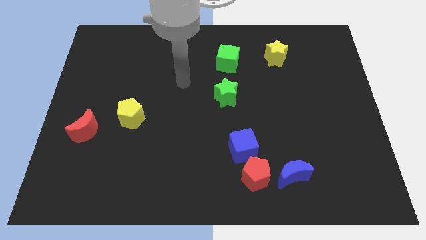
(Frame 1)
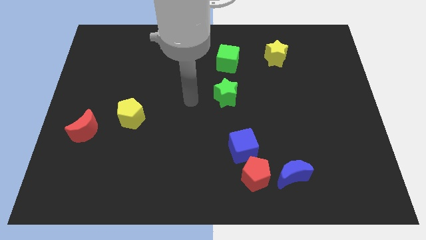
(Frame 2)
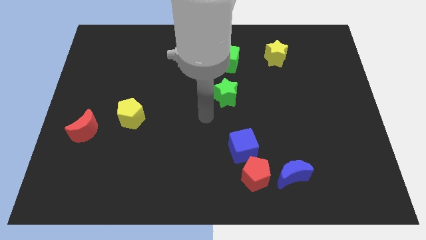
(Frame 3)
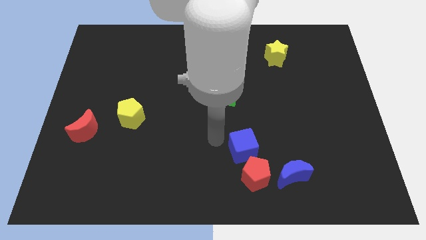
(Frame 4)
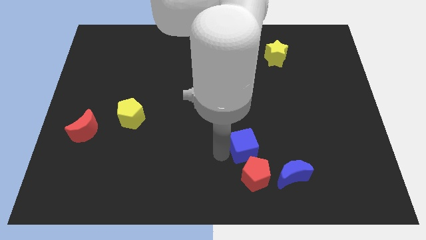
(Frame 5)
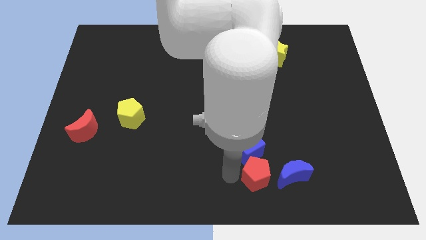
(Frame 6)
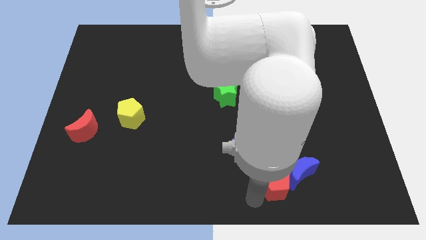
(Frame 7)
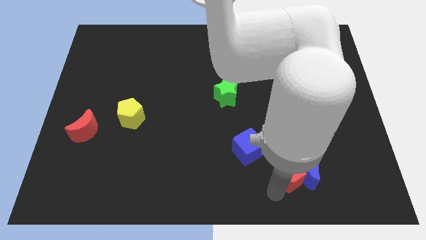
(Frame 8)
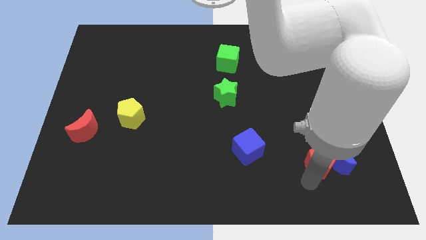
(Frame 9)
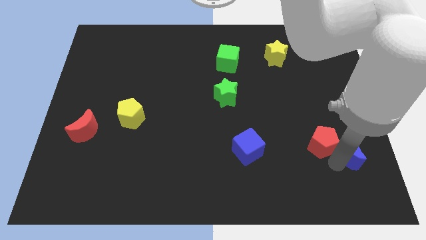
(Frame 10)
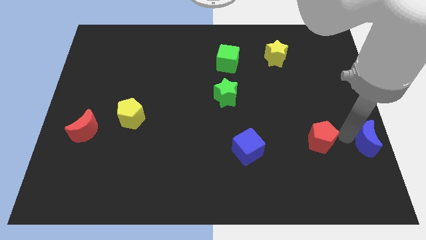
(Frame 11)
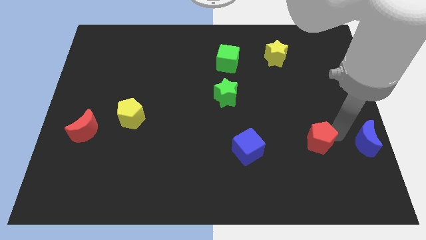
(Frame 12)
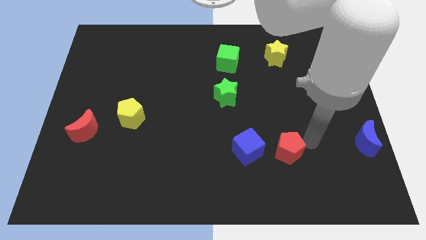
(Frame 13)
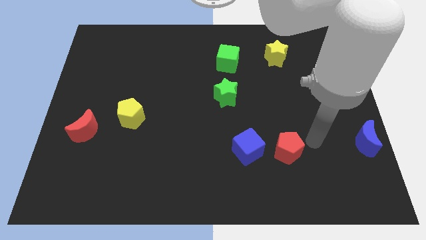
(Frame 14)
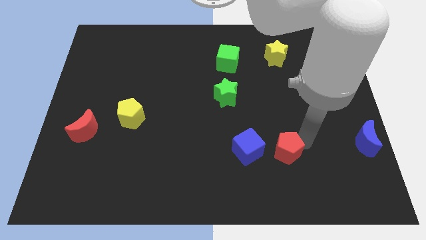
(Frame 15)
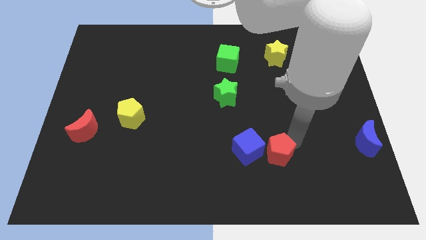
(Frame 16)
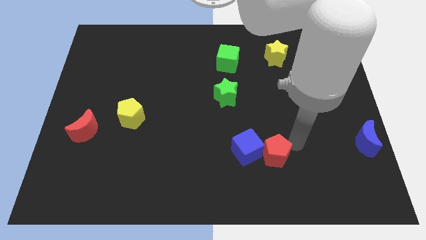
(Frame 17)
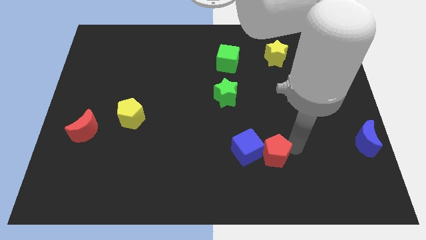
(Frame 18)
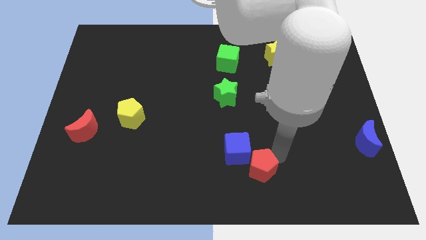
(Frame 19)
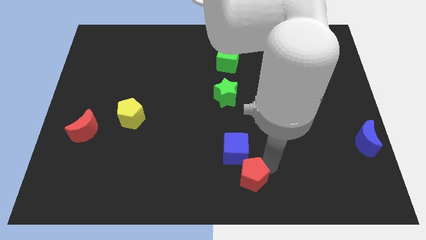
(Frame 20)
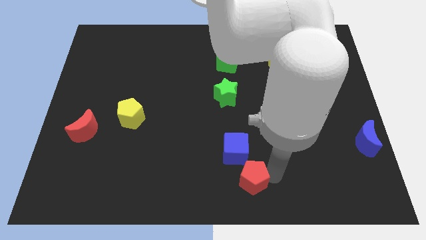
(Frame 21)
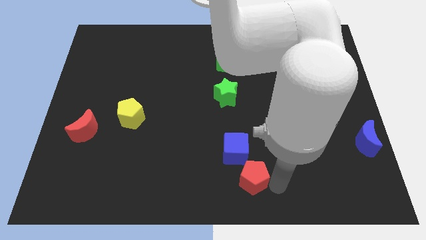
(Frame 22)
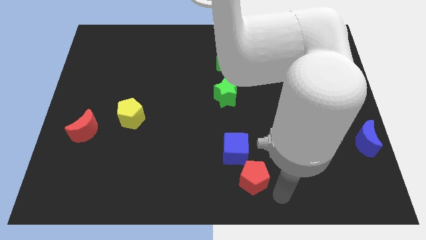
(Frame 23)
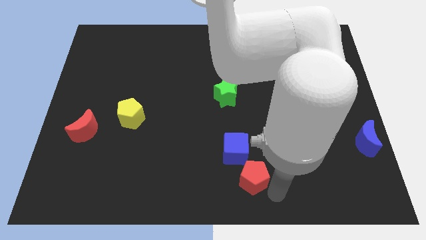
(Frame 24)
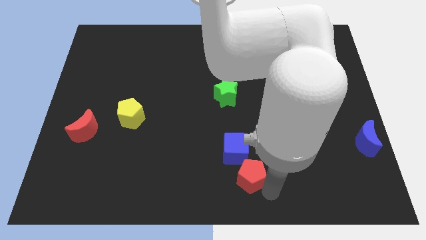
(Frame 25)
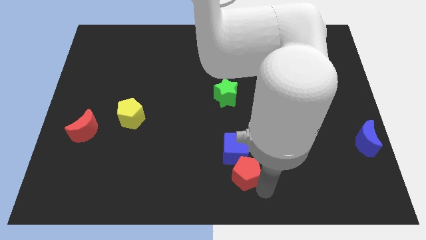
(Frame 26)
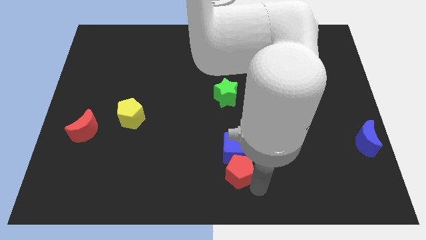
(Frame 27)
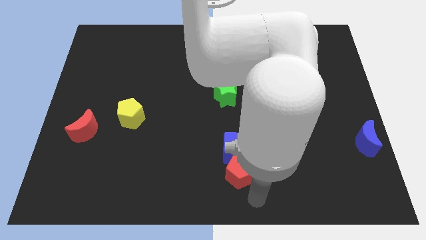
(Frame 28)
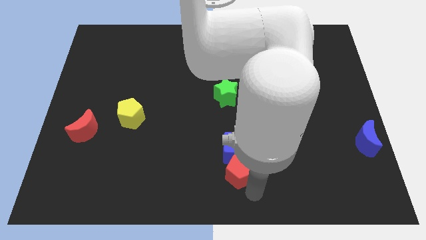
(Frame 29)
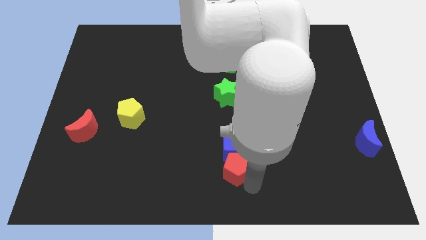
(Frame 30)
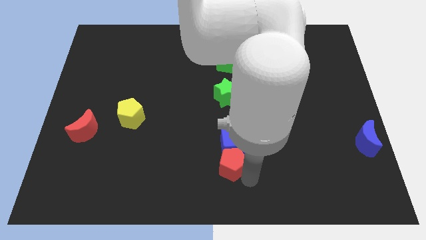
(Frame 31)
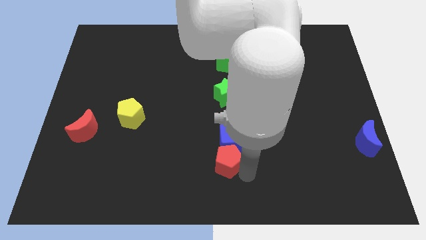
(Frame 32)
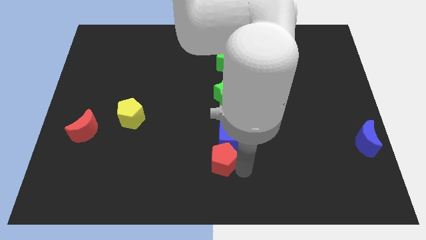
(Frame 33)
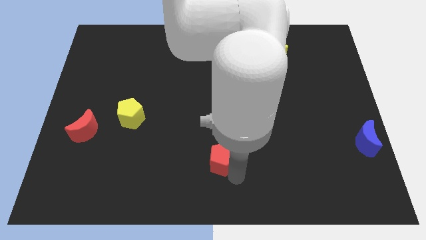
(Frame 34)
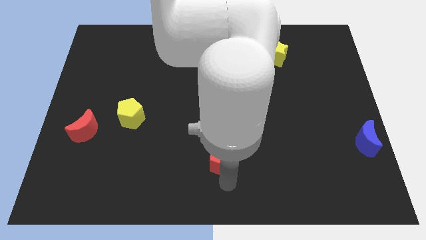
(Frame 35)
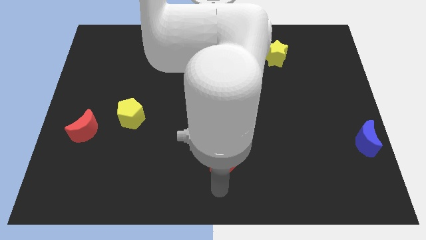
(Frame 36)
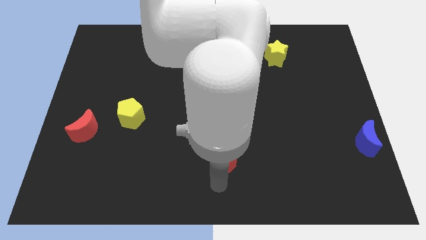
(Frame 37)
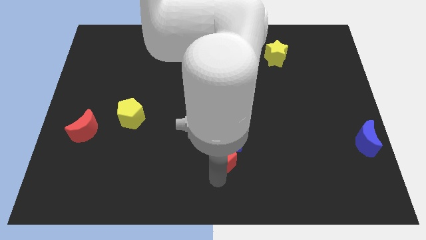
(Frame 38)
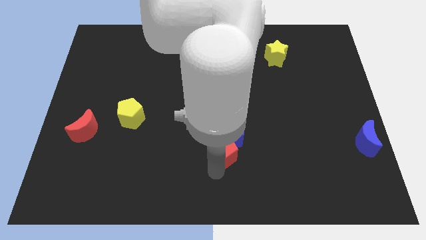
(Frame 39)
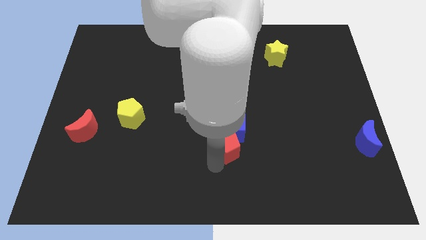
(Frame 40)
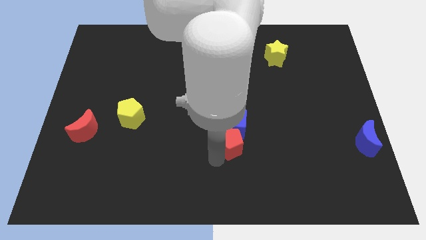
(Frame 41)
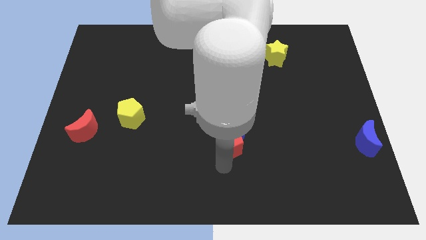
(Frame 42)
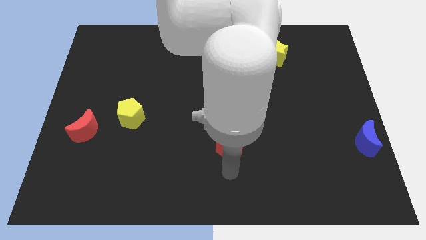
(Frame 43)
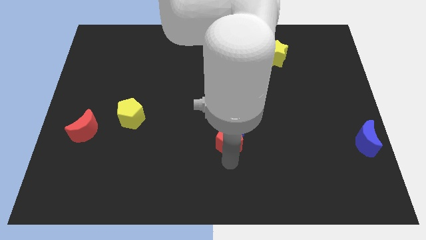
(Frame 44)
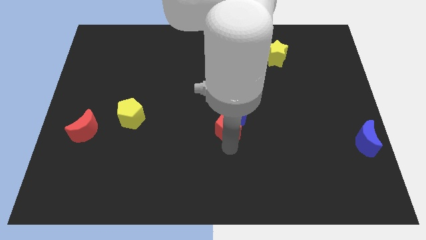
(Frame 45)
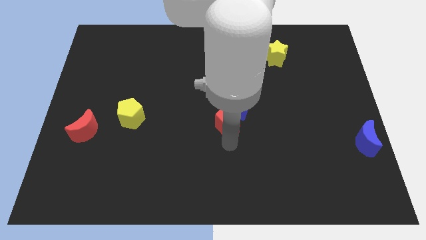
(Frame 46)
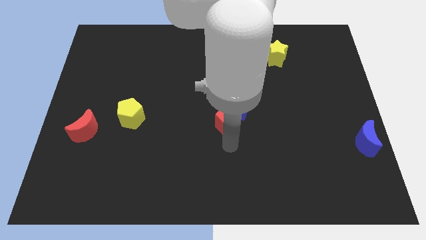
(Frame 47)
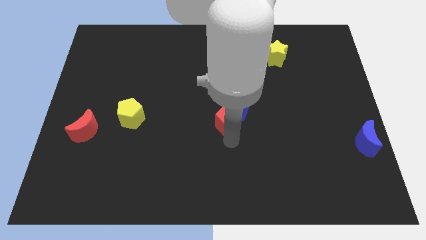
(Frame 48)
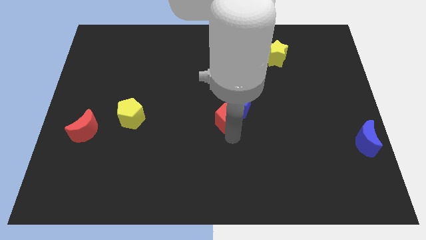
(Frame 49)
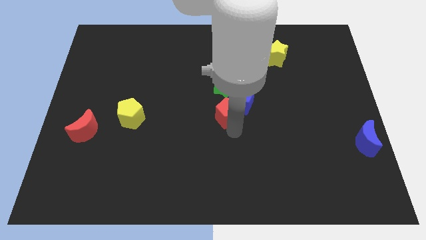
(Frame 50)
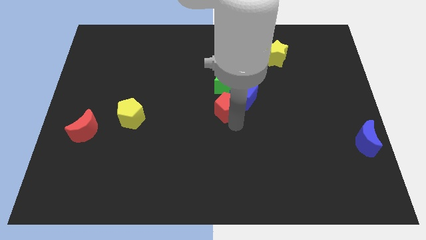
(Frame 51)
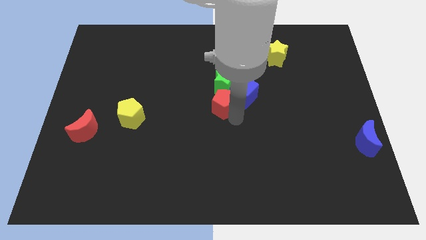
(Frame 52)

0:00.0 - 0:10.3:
slide the red pentagon towards the green star

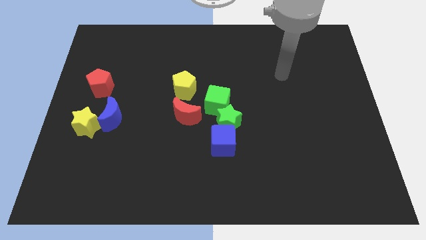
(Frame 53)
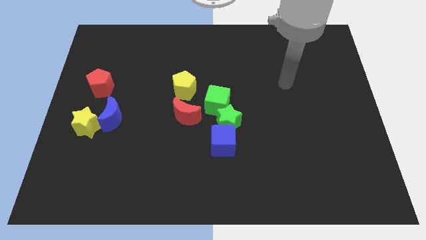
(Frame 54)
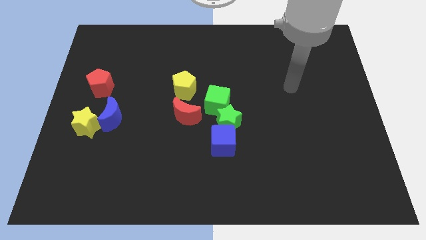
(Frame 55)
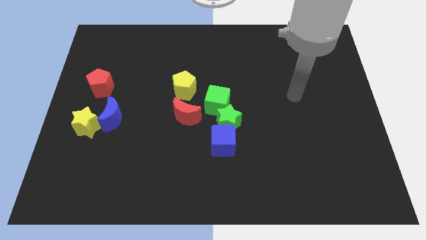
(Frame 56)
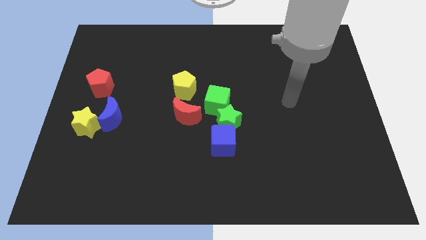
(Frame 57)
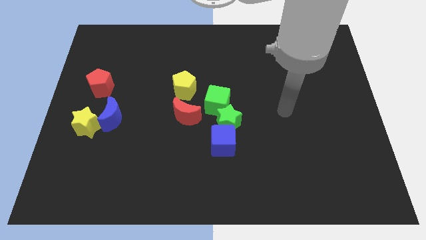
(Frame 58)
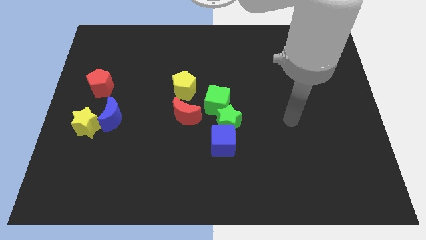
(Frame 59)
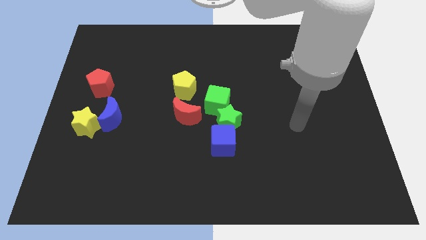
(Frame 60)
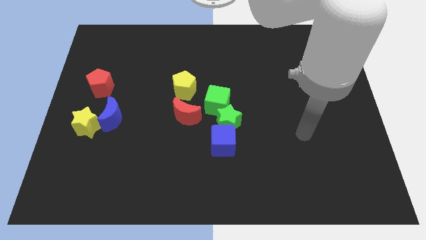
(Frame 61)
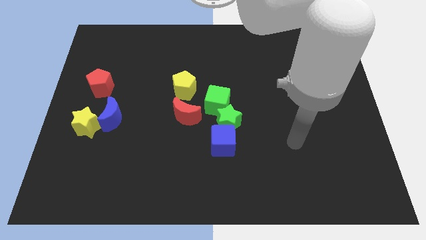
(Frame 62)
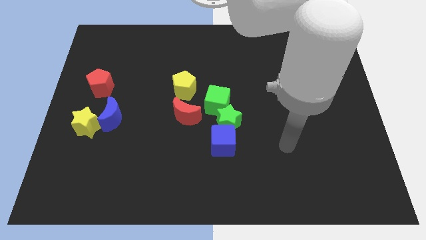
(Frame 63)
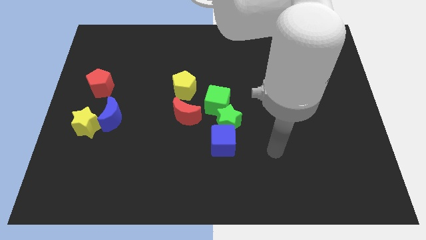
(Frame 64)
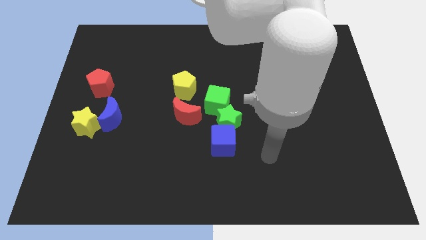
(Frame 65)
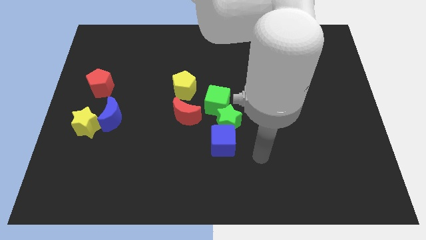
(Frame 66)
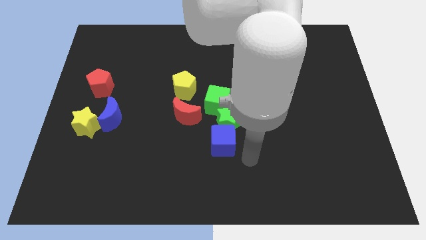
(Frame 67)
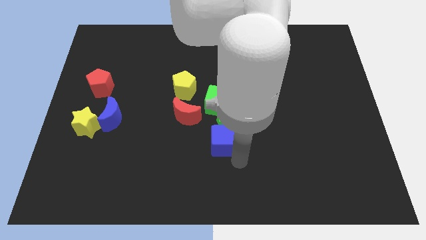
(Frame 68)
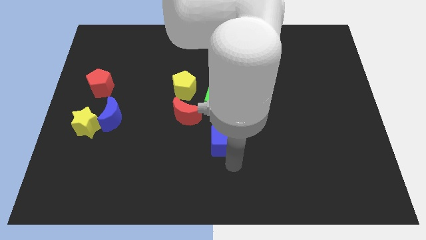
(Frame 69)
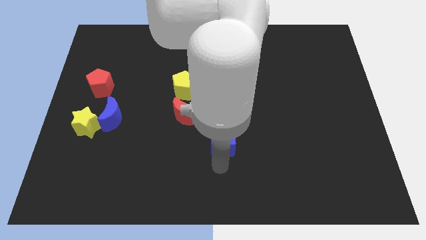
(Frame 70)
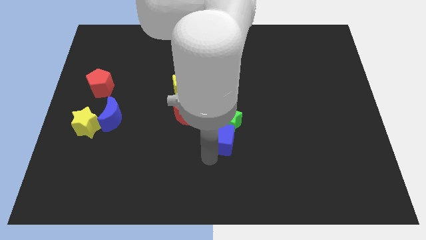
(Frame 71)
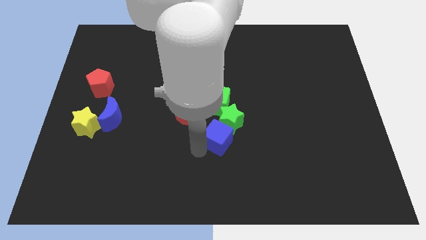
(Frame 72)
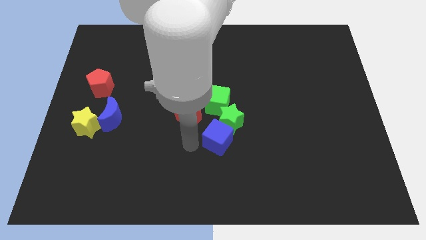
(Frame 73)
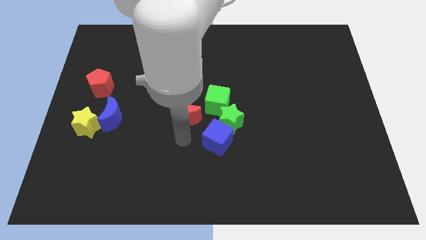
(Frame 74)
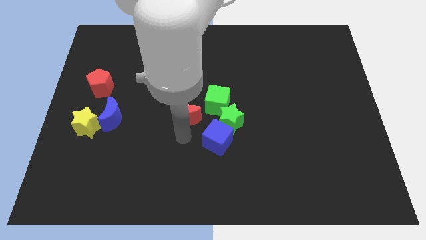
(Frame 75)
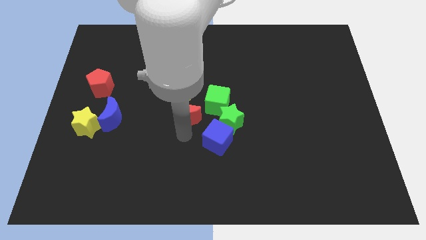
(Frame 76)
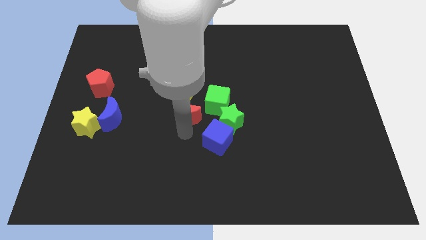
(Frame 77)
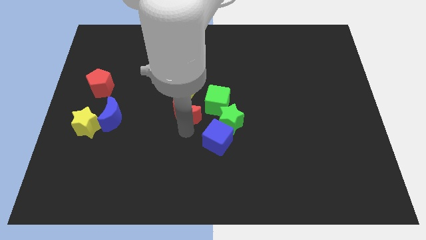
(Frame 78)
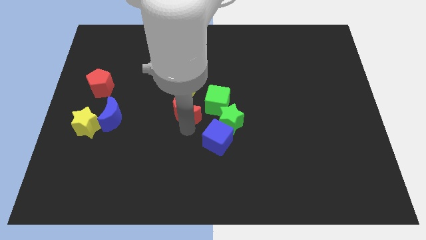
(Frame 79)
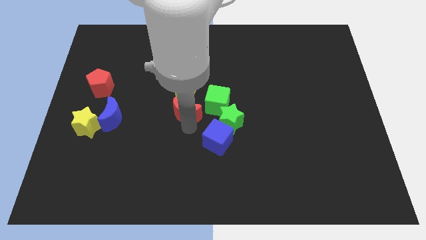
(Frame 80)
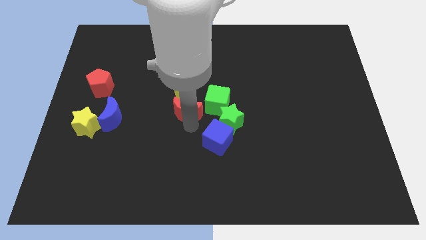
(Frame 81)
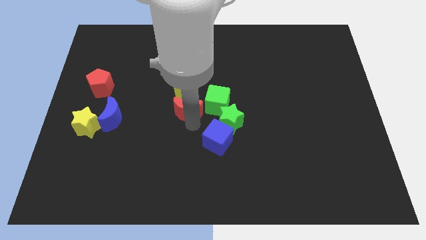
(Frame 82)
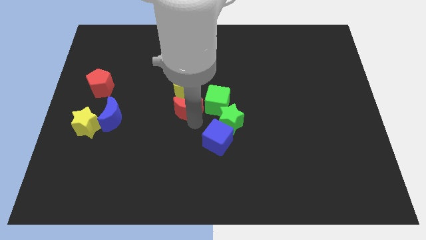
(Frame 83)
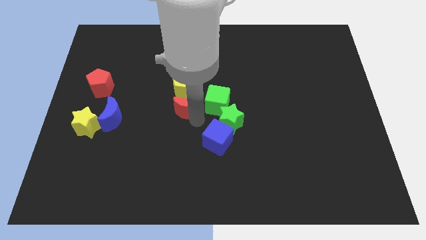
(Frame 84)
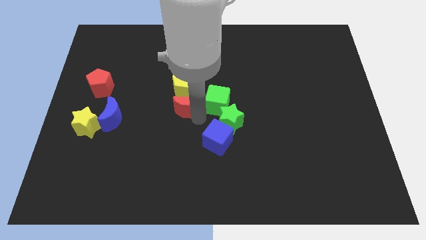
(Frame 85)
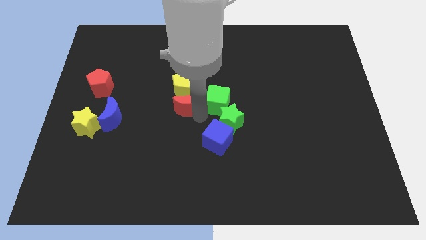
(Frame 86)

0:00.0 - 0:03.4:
slide the red moon to the yellow pentagon
